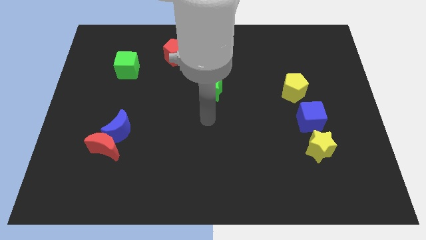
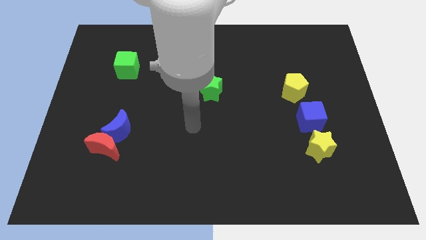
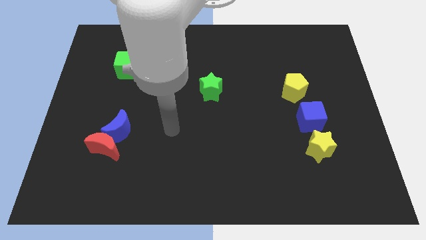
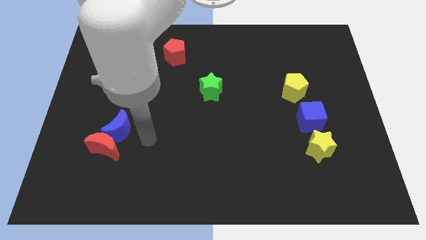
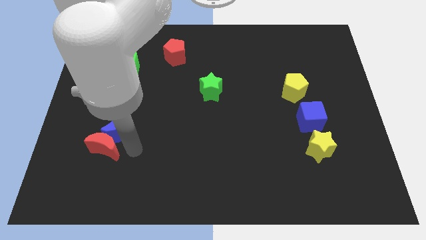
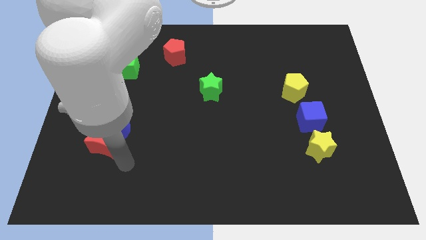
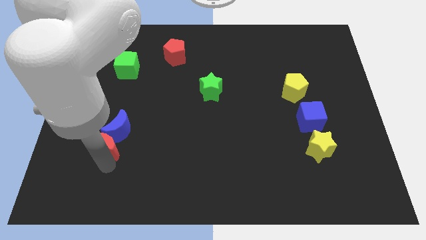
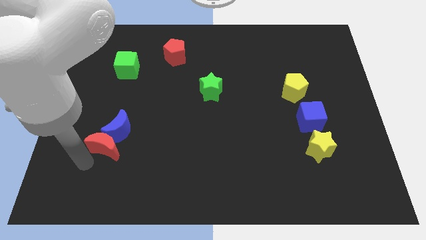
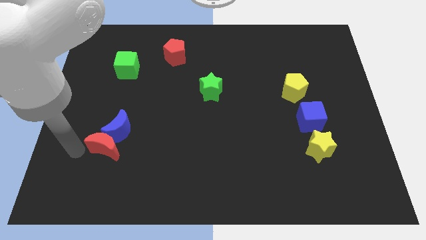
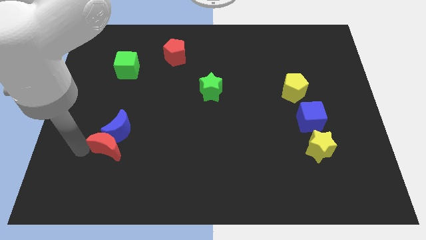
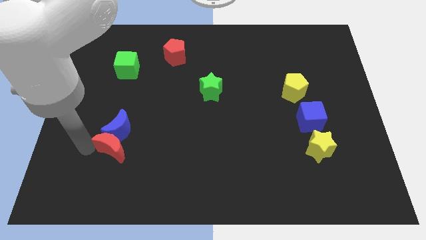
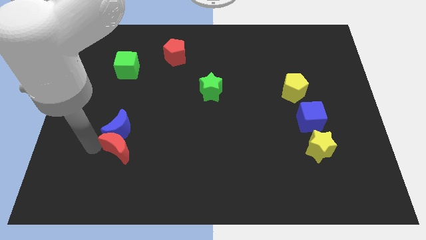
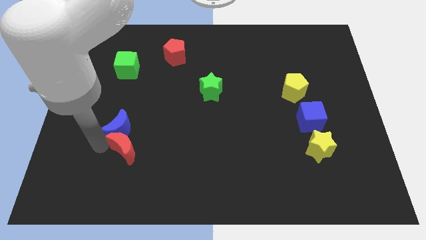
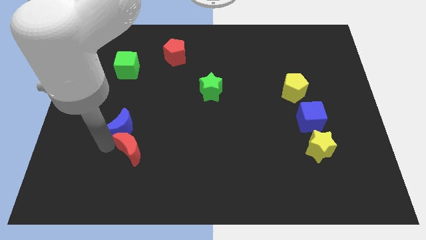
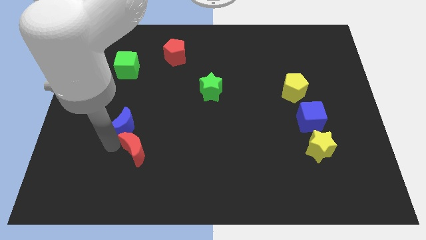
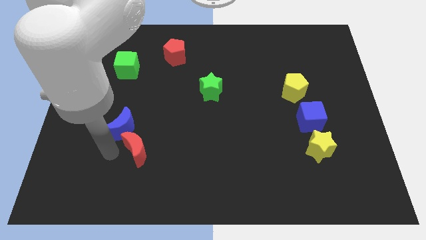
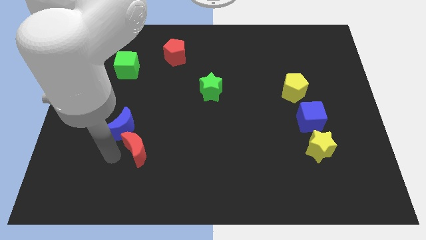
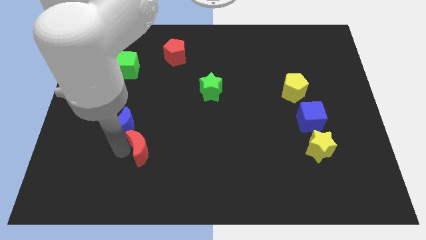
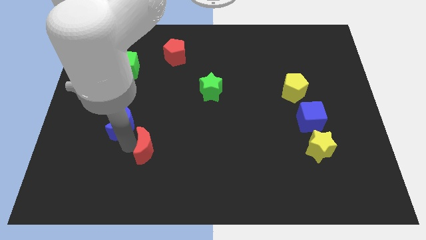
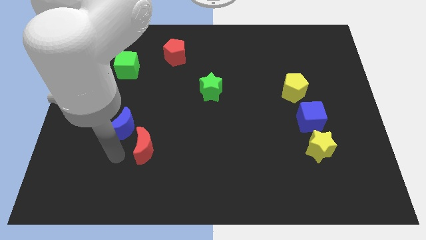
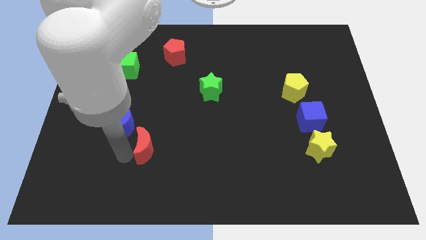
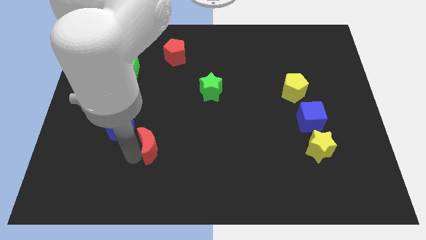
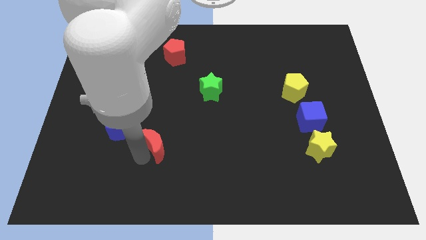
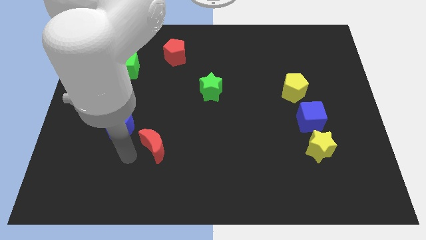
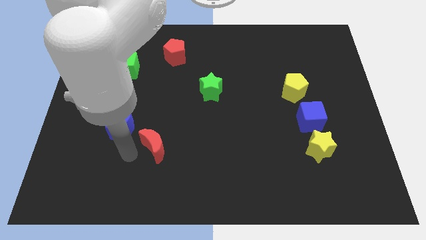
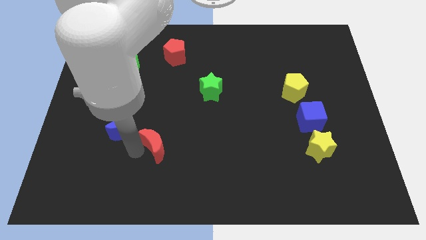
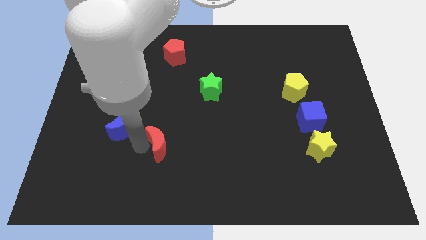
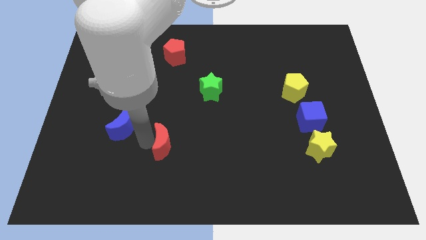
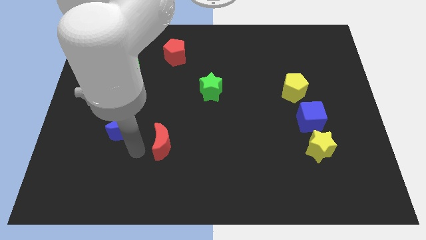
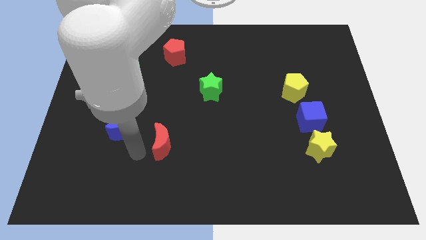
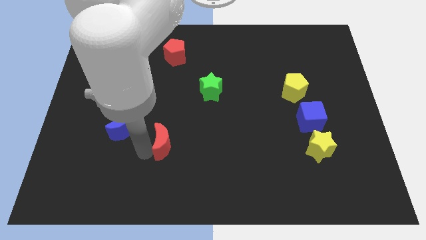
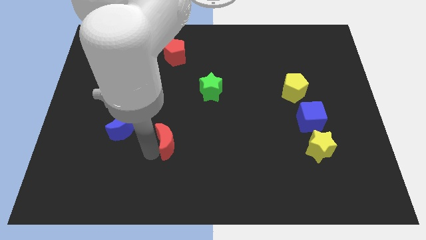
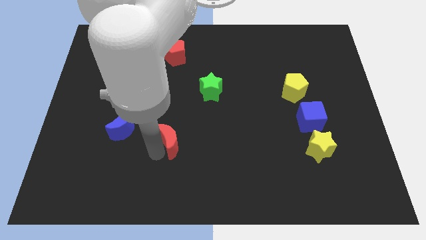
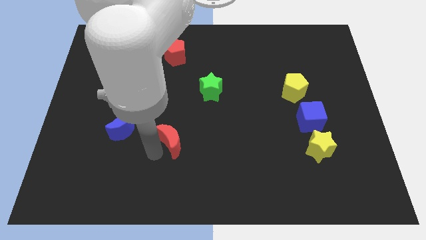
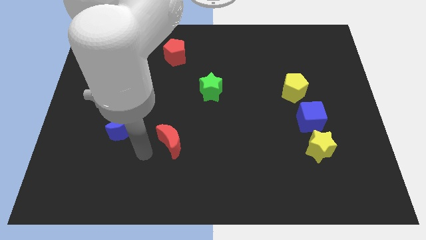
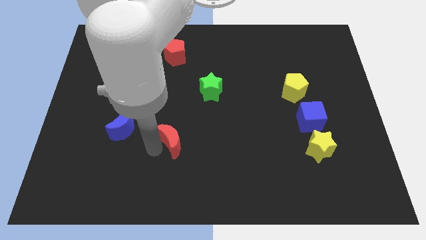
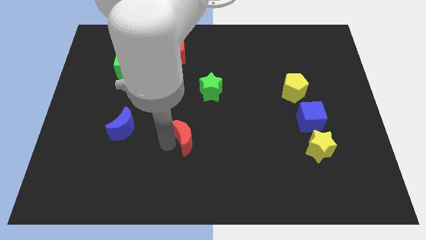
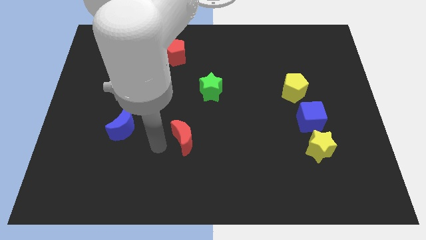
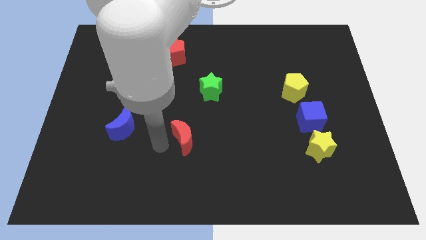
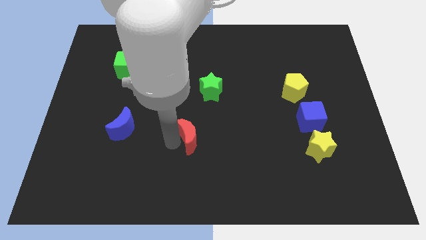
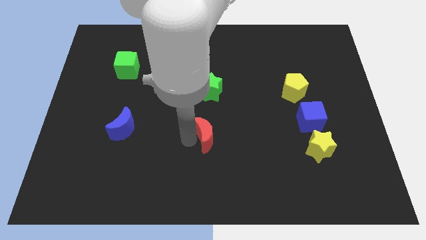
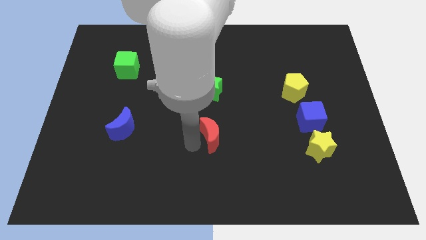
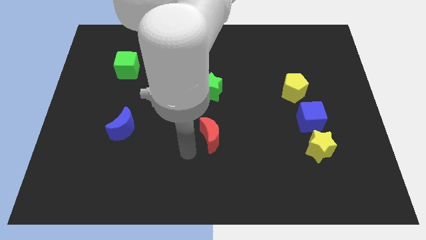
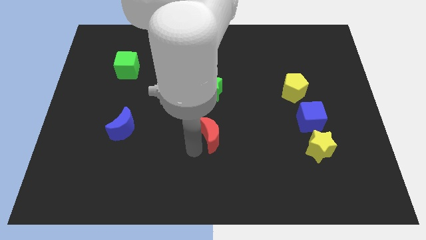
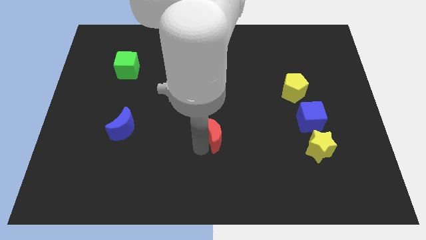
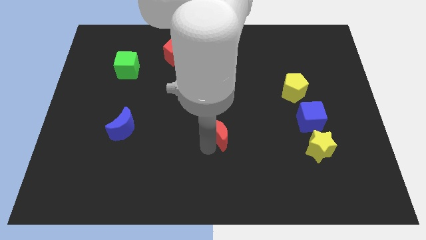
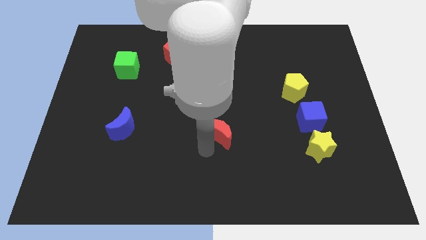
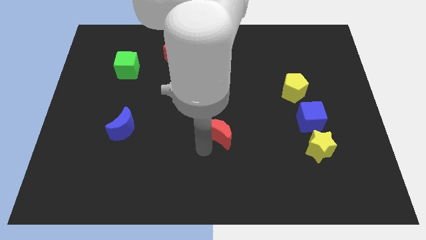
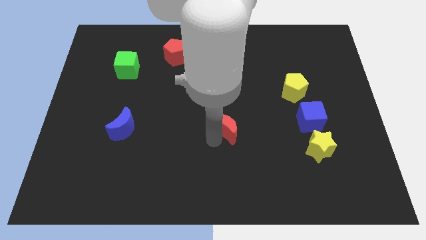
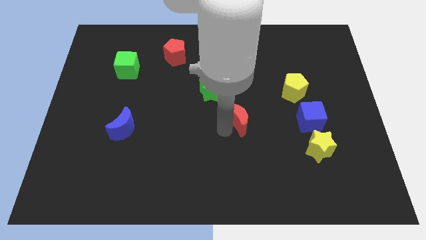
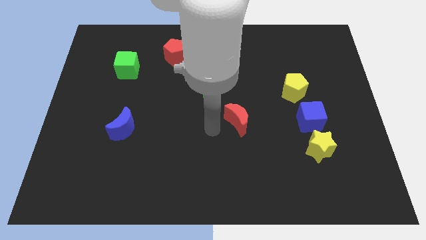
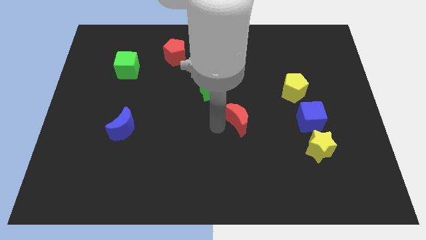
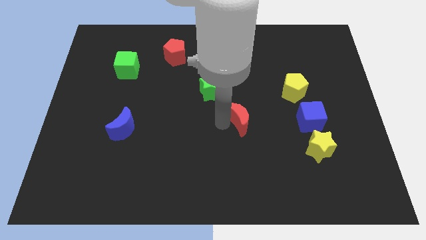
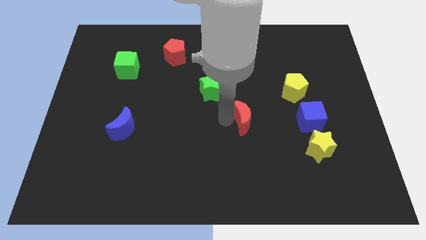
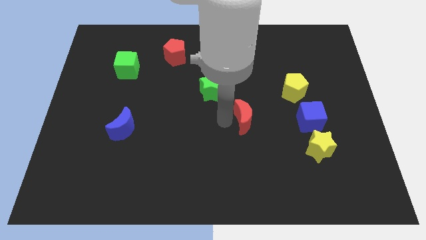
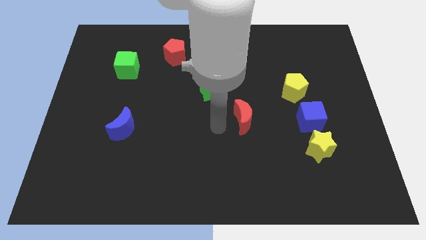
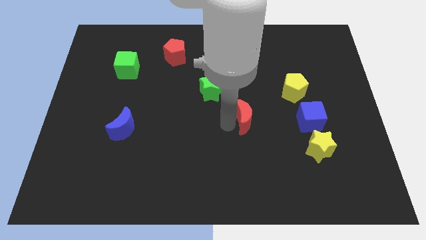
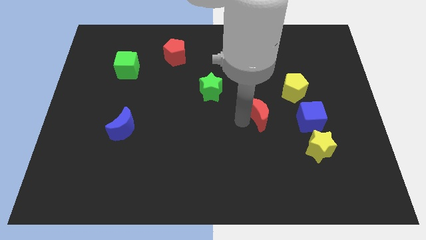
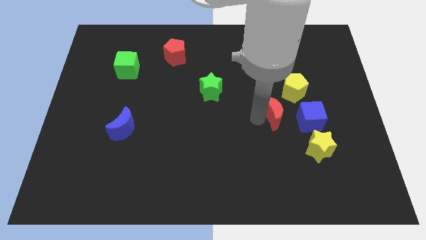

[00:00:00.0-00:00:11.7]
push the red moon to the top left of the blue cube

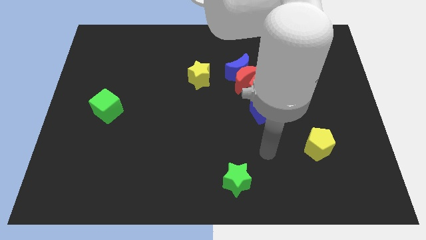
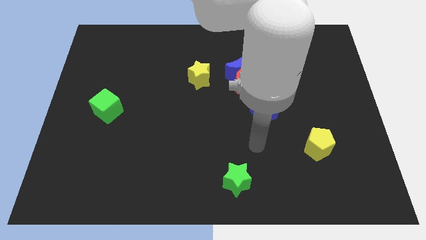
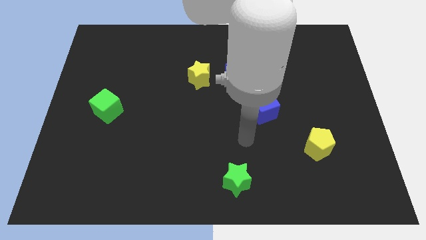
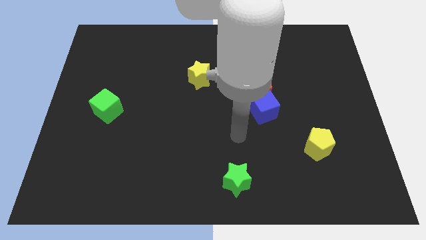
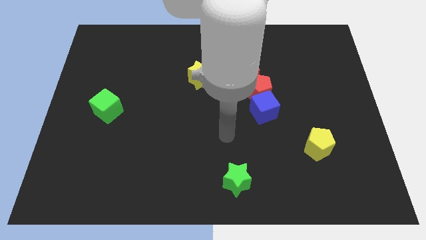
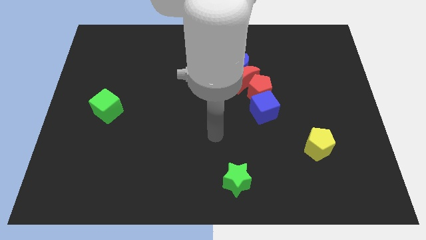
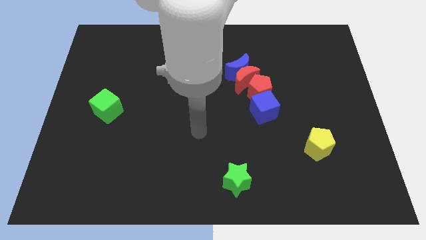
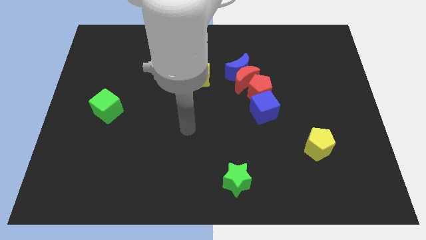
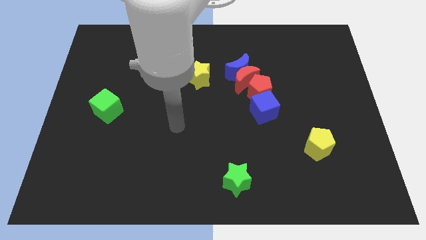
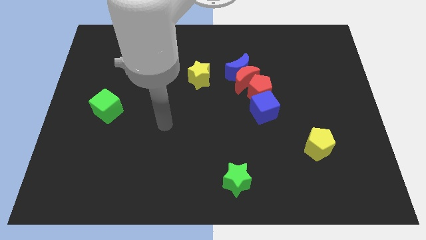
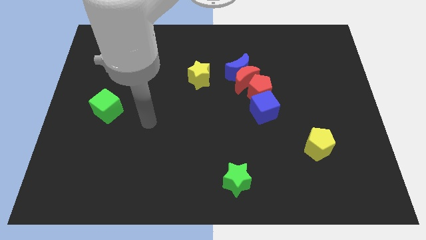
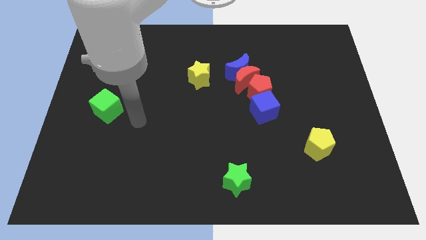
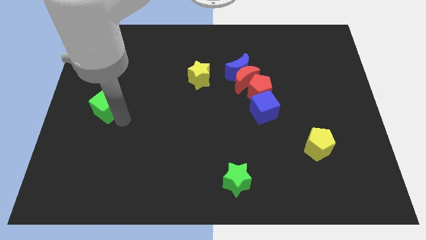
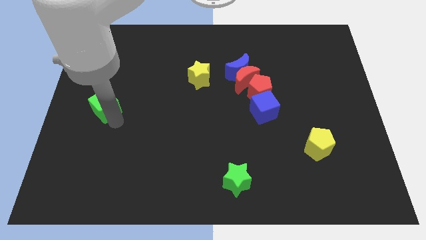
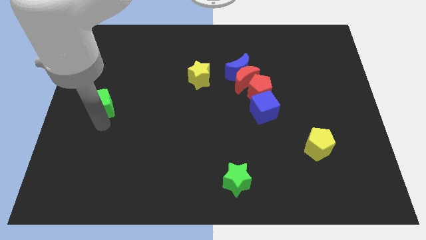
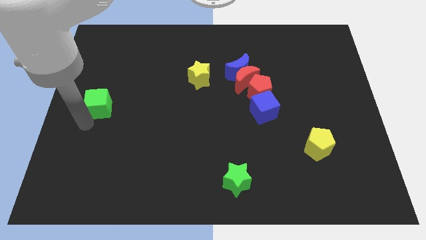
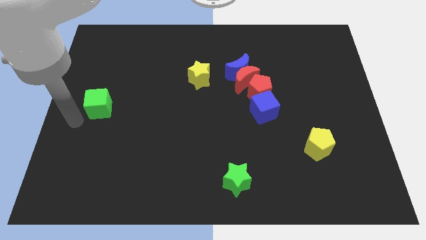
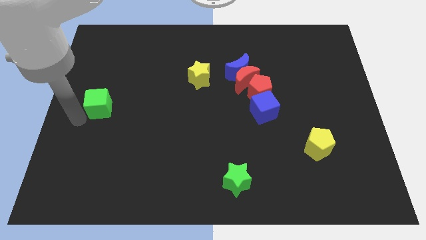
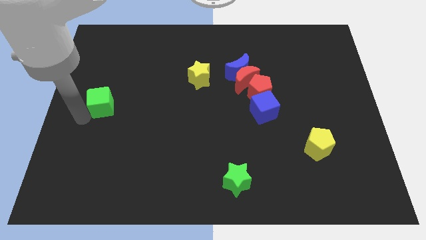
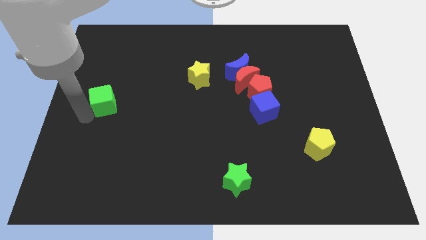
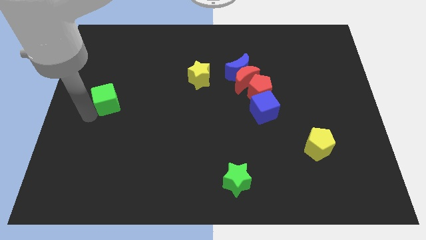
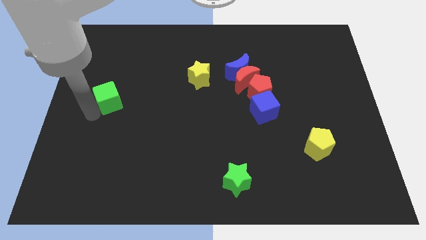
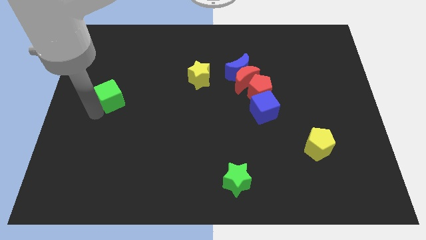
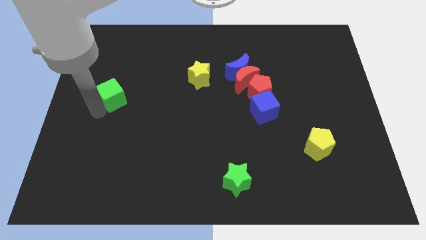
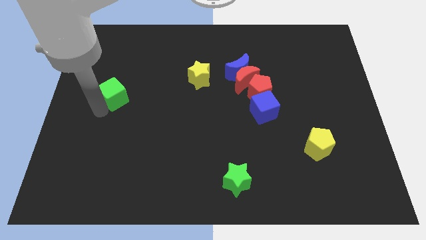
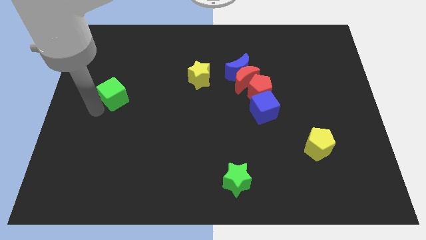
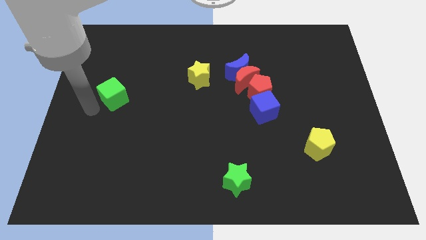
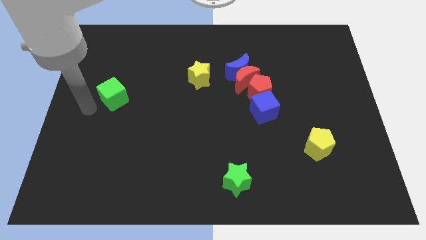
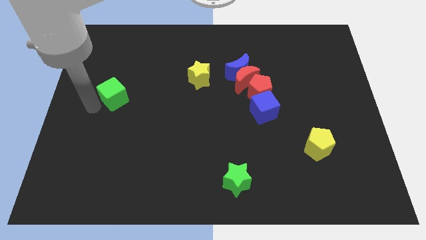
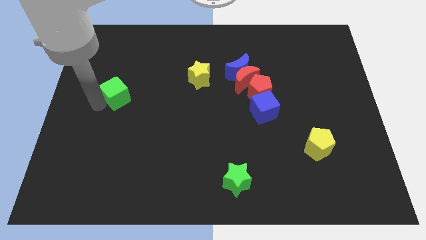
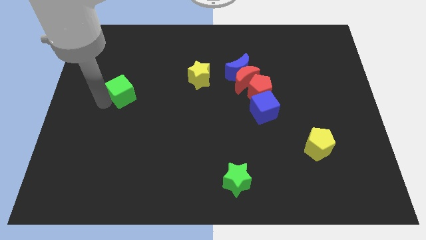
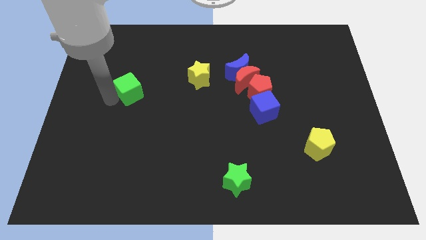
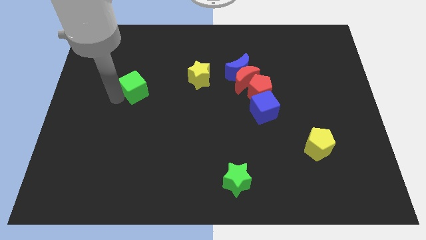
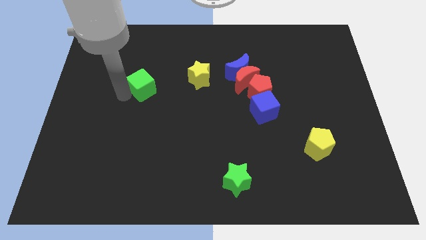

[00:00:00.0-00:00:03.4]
move the green cube to the left side of the yellow star
